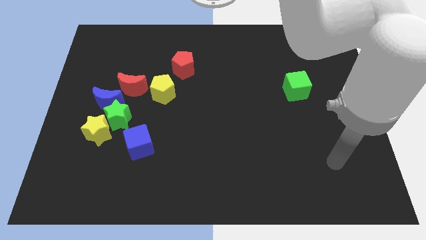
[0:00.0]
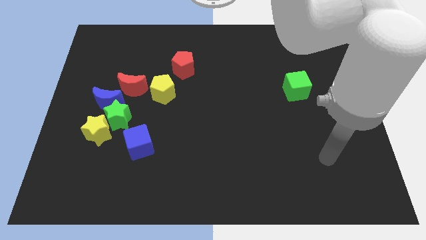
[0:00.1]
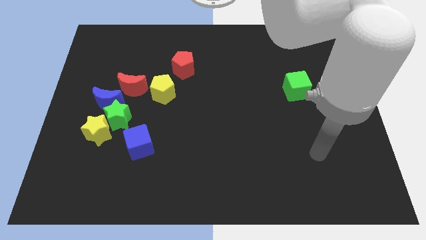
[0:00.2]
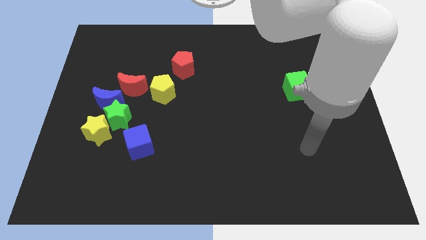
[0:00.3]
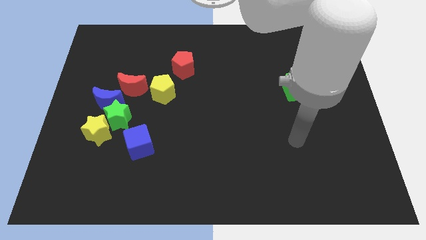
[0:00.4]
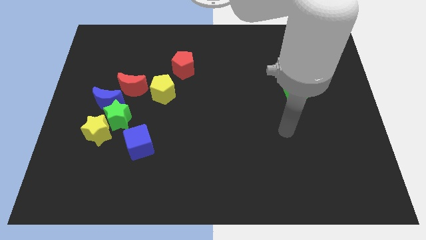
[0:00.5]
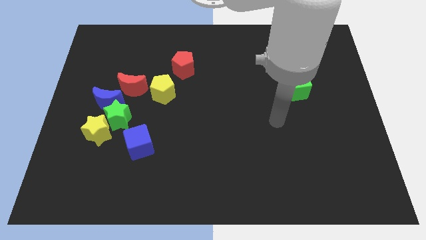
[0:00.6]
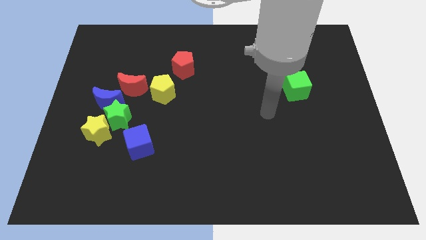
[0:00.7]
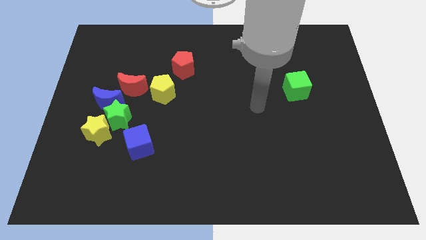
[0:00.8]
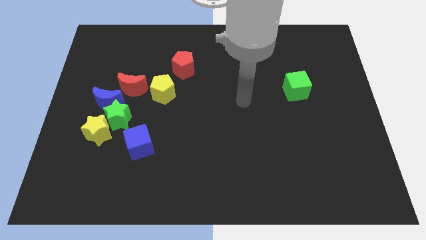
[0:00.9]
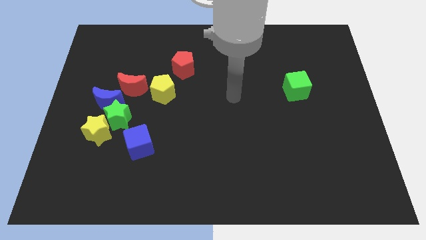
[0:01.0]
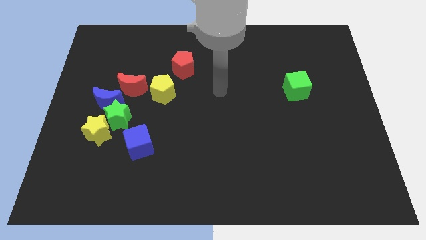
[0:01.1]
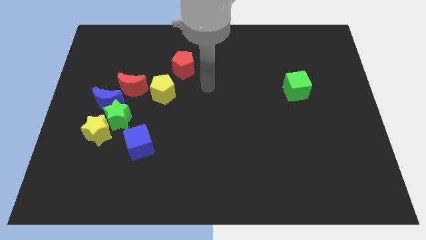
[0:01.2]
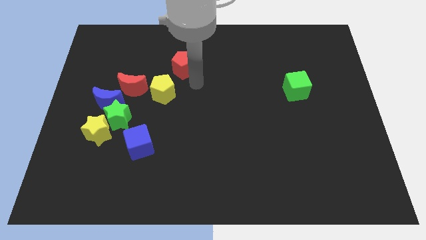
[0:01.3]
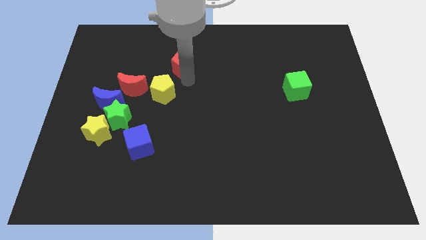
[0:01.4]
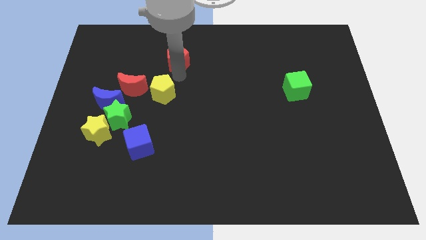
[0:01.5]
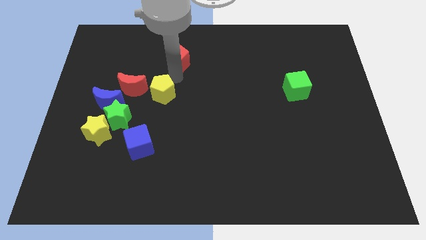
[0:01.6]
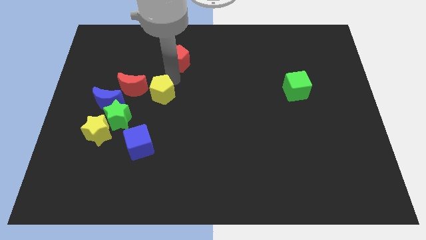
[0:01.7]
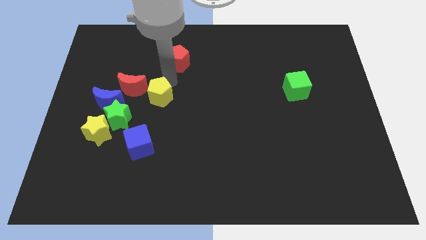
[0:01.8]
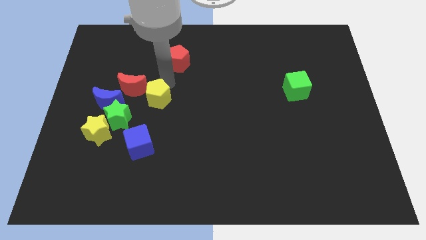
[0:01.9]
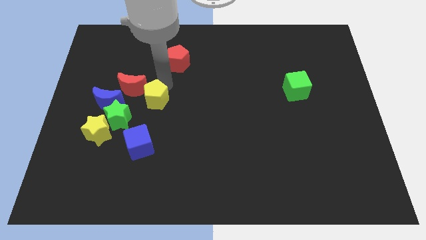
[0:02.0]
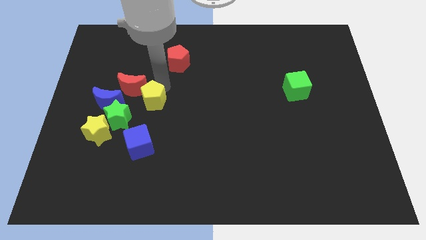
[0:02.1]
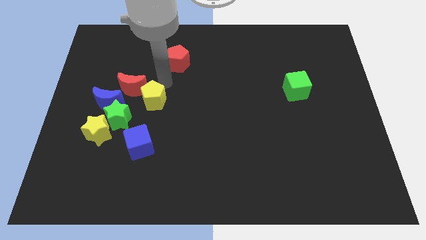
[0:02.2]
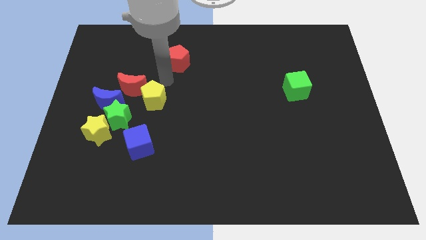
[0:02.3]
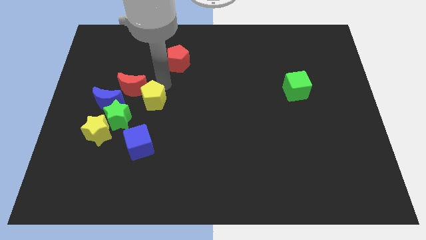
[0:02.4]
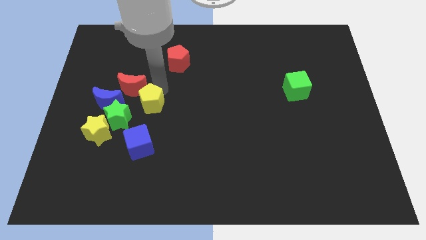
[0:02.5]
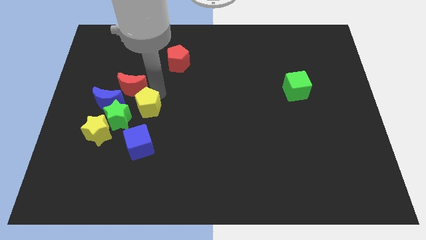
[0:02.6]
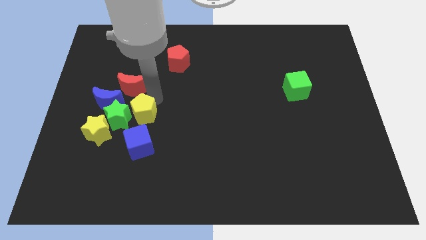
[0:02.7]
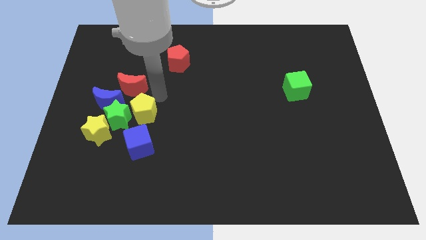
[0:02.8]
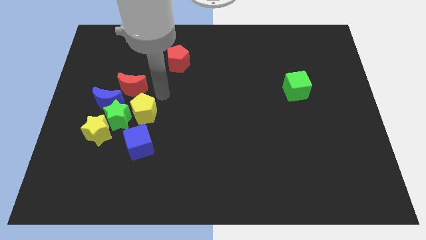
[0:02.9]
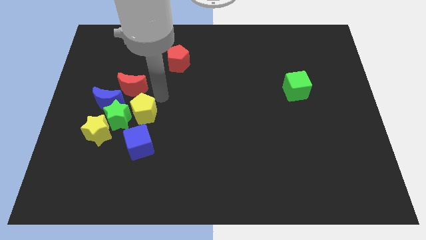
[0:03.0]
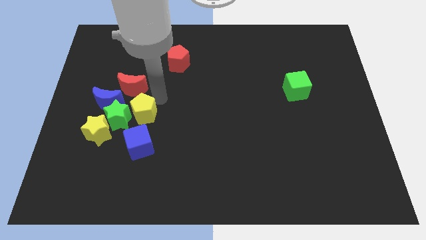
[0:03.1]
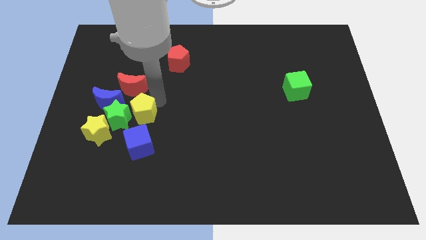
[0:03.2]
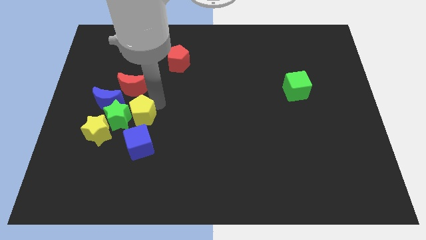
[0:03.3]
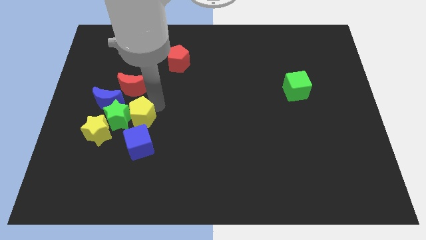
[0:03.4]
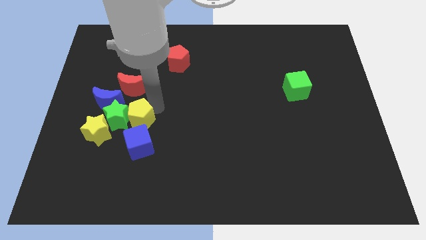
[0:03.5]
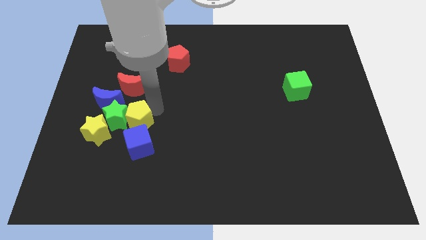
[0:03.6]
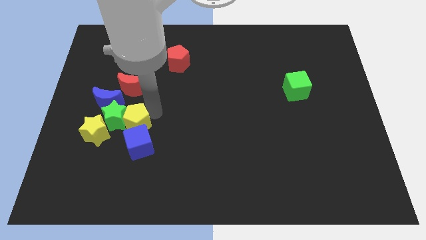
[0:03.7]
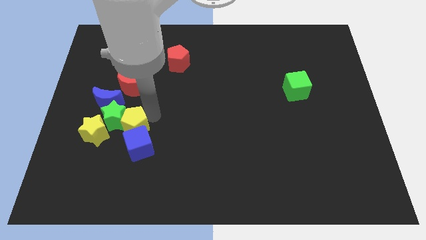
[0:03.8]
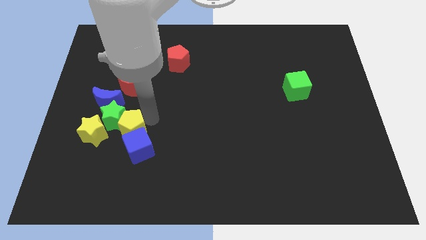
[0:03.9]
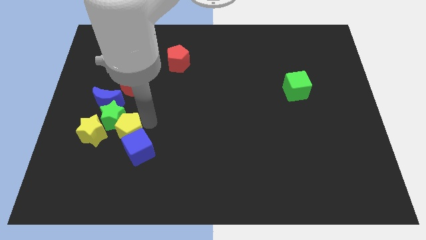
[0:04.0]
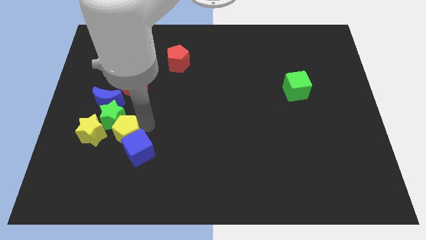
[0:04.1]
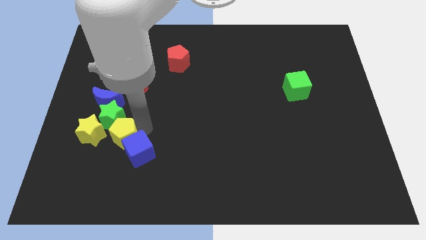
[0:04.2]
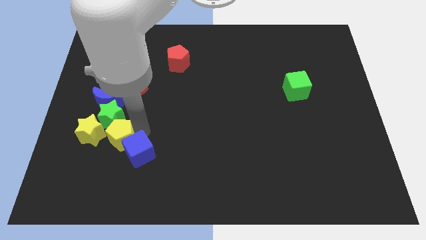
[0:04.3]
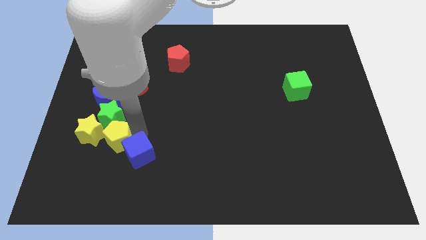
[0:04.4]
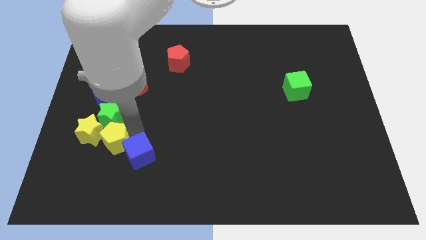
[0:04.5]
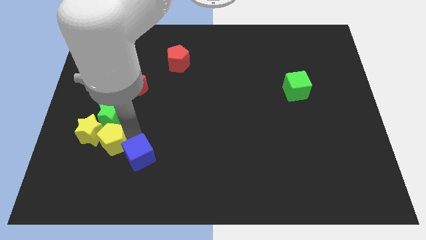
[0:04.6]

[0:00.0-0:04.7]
slide the yellow pentagon next to the yellow star

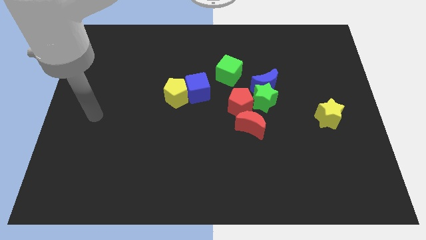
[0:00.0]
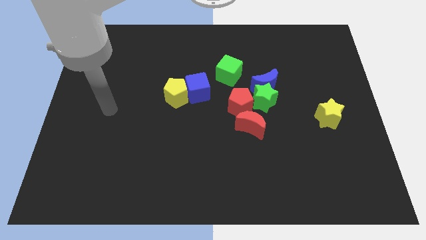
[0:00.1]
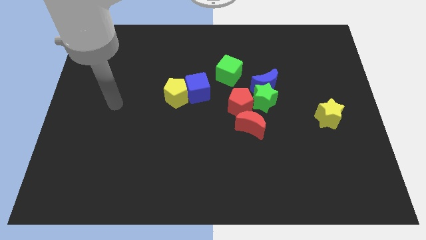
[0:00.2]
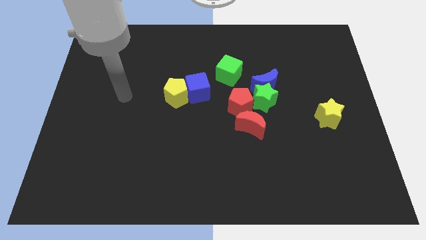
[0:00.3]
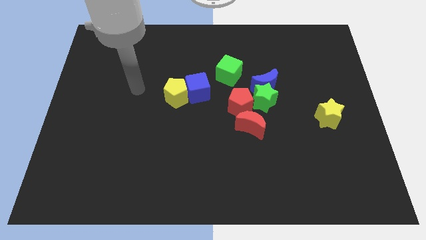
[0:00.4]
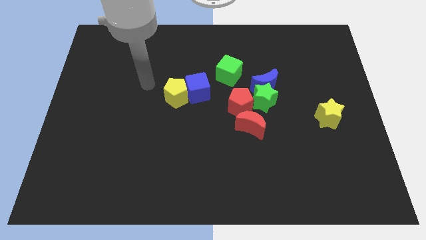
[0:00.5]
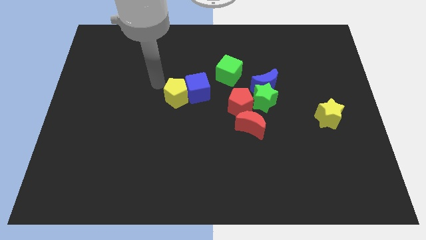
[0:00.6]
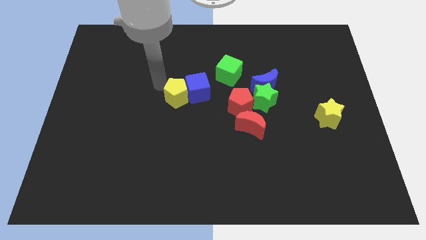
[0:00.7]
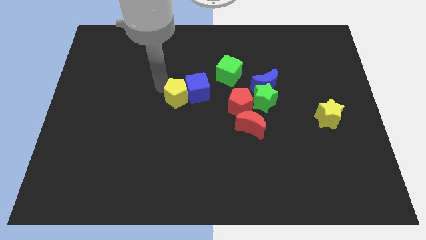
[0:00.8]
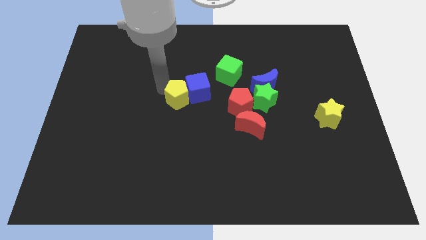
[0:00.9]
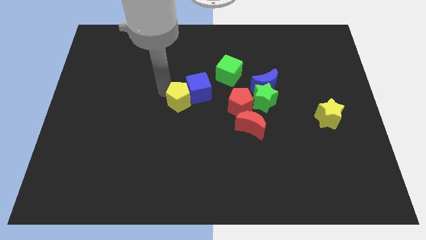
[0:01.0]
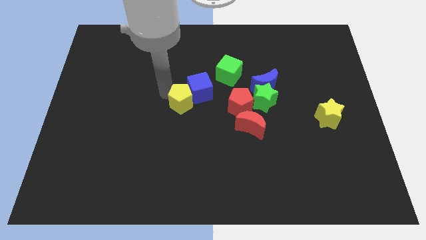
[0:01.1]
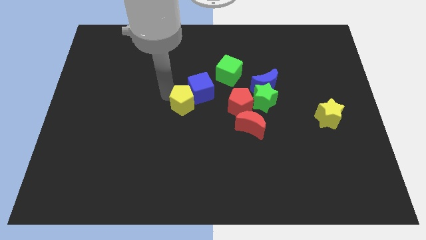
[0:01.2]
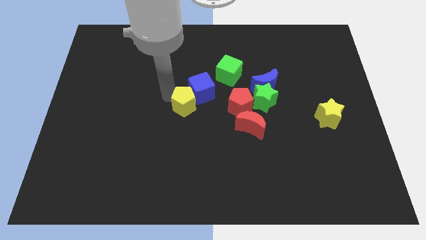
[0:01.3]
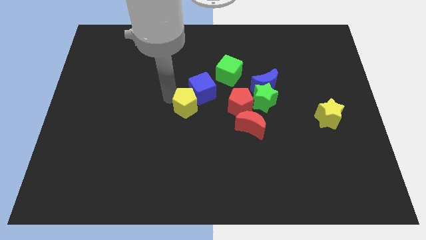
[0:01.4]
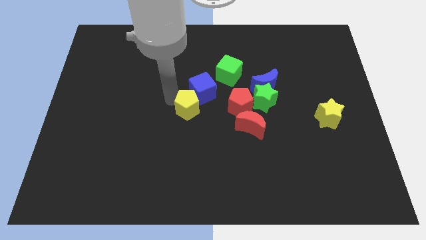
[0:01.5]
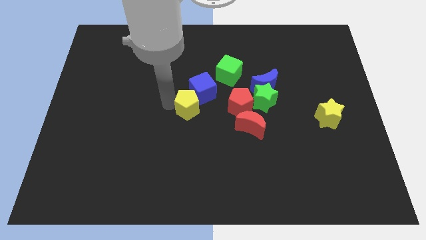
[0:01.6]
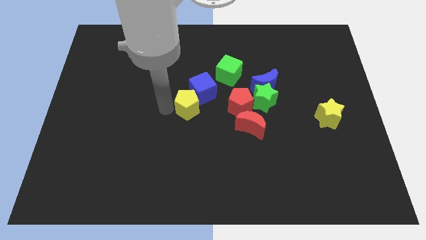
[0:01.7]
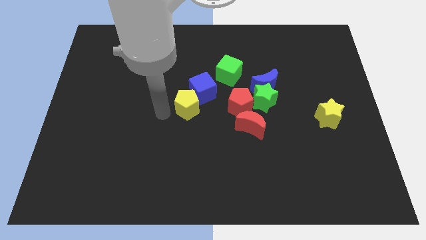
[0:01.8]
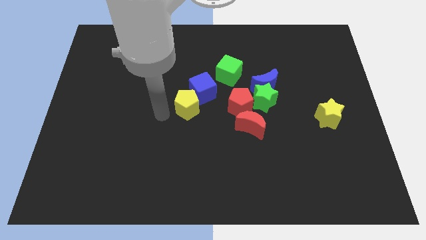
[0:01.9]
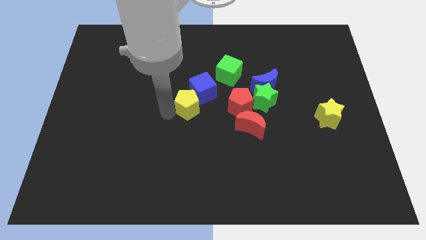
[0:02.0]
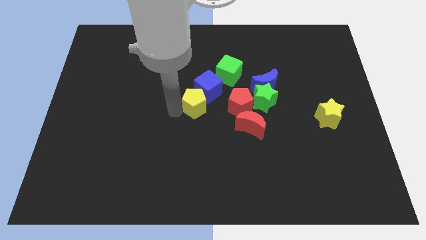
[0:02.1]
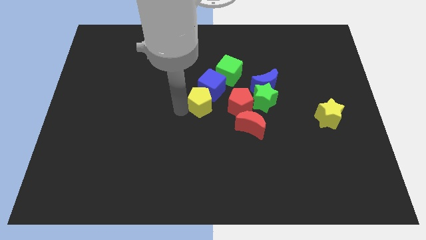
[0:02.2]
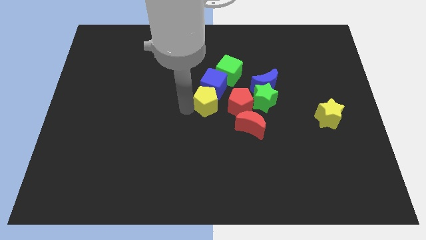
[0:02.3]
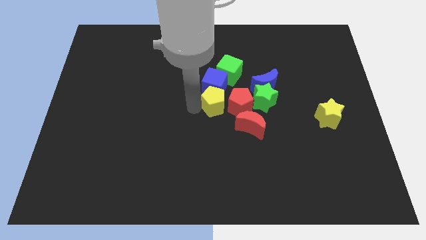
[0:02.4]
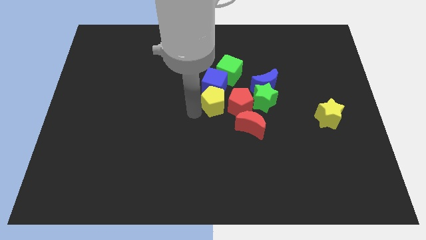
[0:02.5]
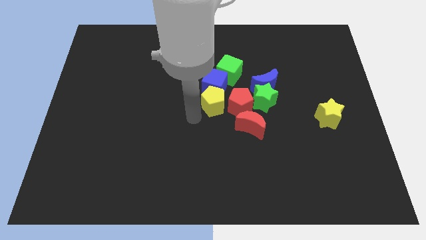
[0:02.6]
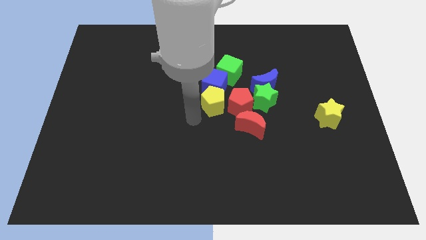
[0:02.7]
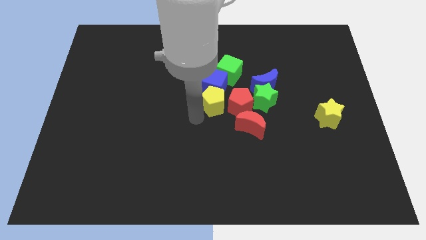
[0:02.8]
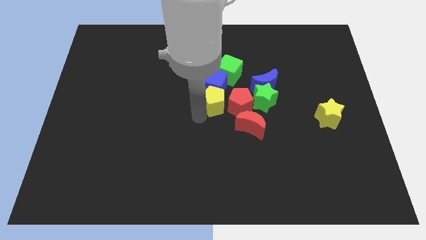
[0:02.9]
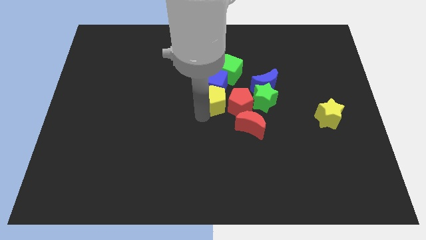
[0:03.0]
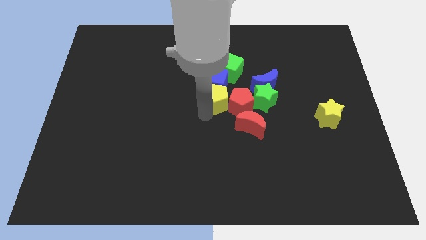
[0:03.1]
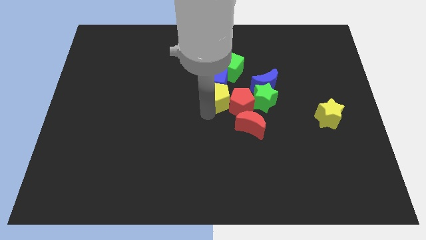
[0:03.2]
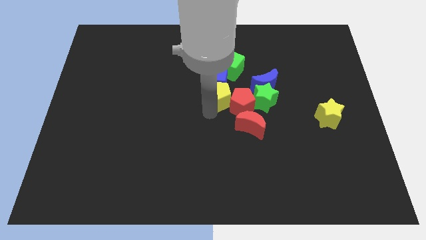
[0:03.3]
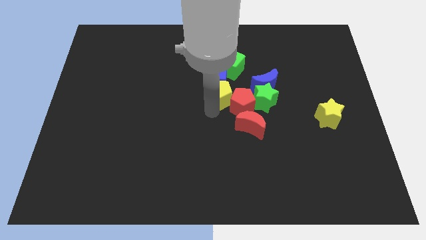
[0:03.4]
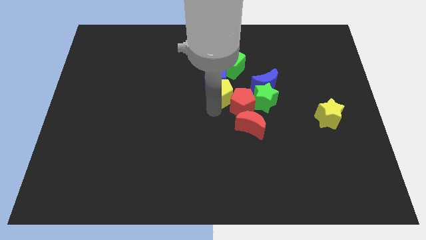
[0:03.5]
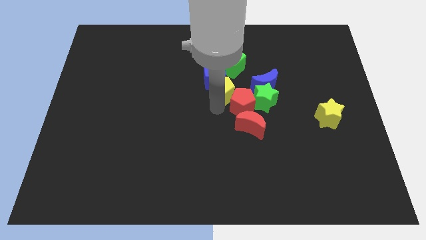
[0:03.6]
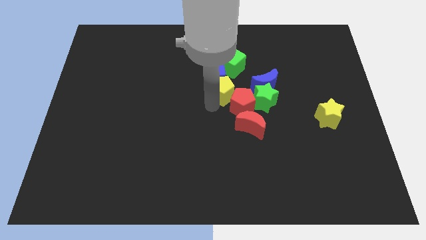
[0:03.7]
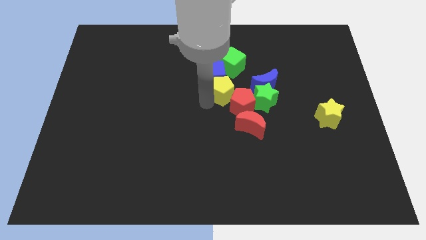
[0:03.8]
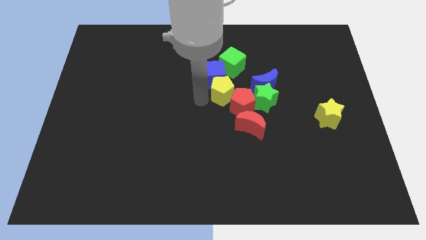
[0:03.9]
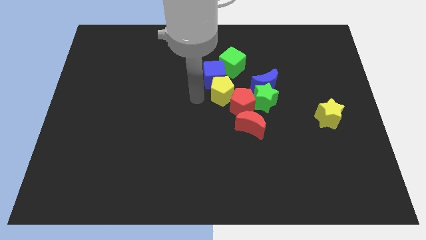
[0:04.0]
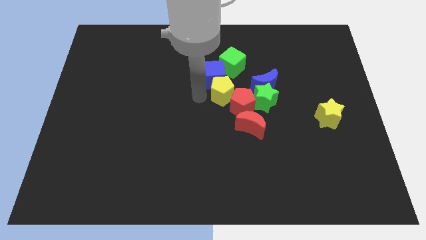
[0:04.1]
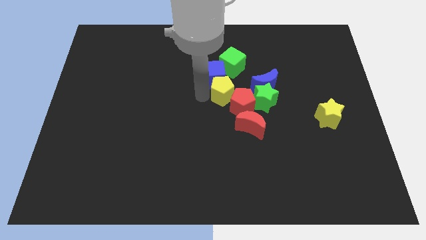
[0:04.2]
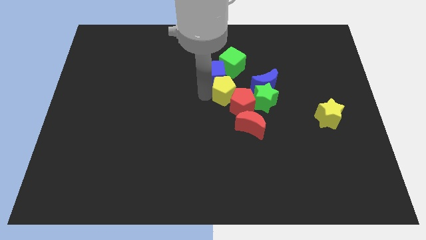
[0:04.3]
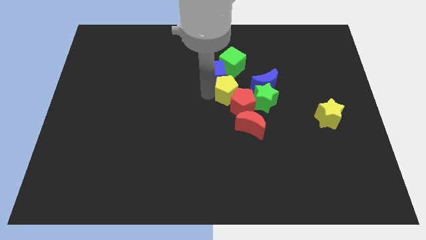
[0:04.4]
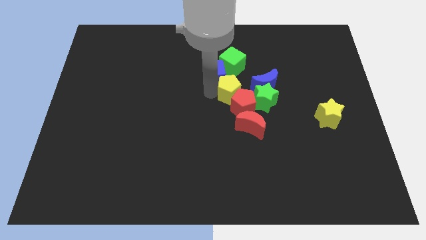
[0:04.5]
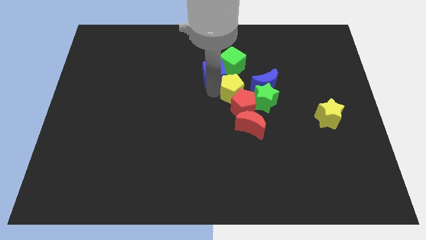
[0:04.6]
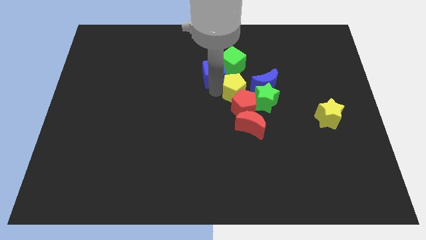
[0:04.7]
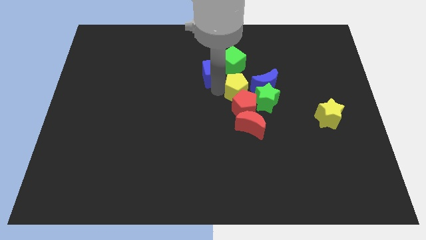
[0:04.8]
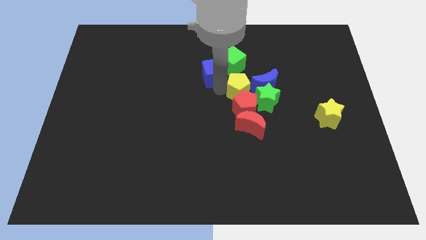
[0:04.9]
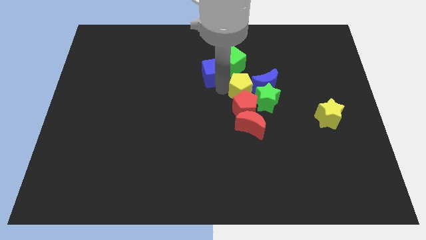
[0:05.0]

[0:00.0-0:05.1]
move the yellow pentagon towards the blue moon
